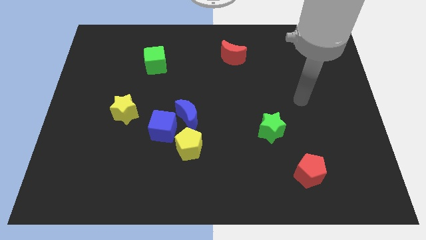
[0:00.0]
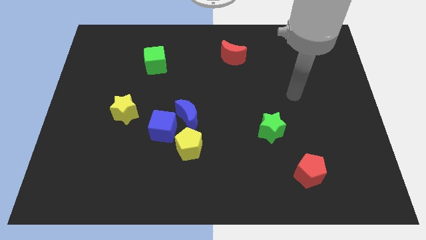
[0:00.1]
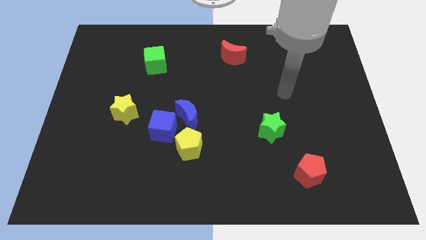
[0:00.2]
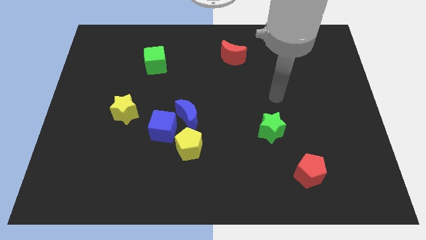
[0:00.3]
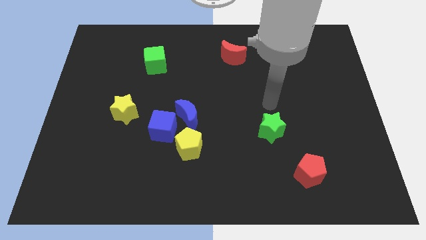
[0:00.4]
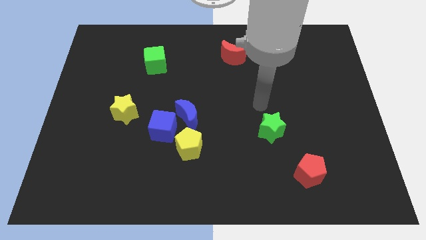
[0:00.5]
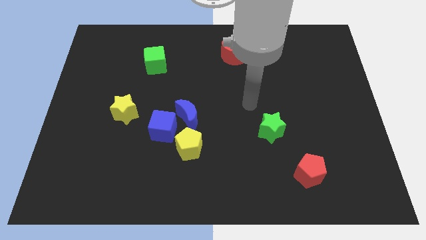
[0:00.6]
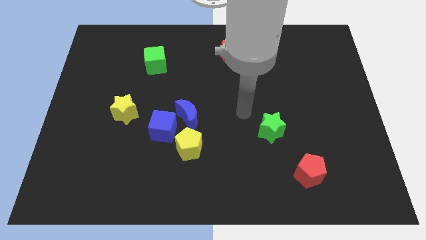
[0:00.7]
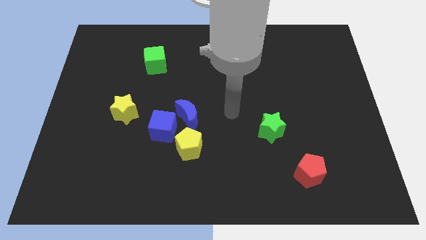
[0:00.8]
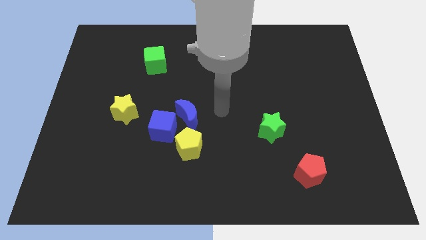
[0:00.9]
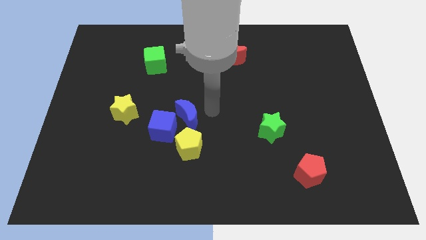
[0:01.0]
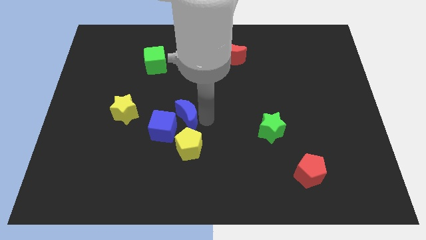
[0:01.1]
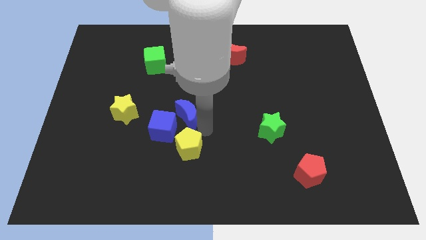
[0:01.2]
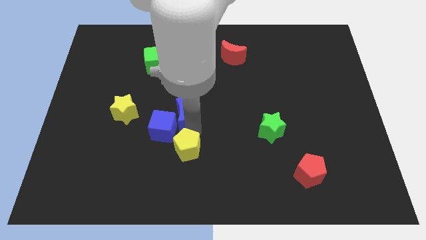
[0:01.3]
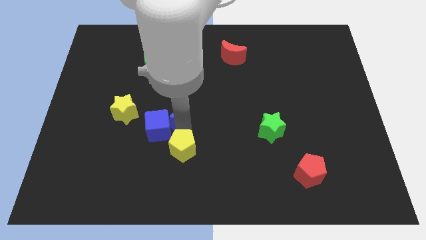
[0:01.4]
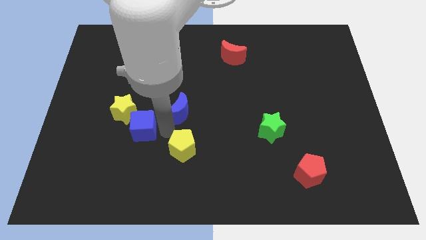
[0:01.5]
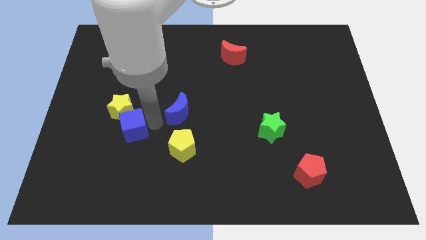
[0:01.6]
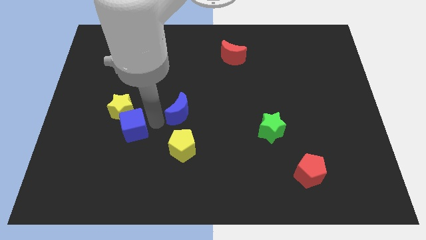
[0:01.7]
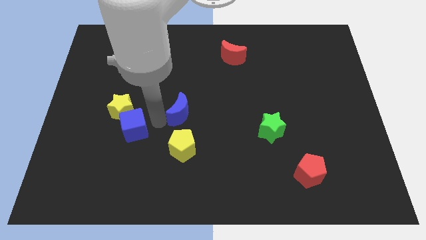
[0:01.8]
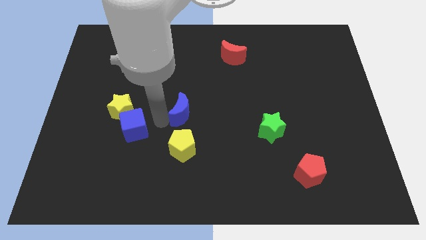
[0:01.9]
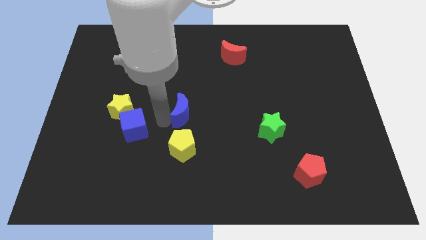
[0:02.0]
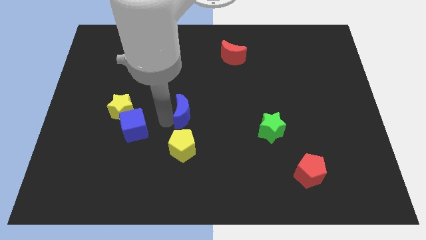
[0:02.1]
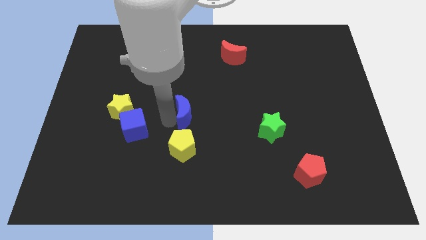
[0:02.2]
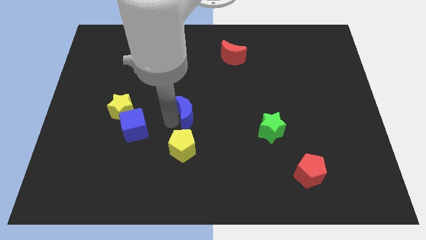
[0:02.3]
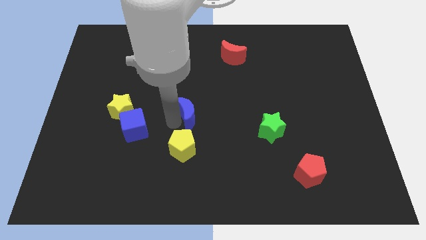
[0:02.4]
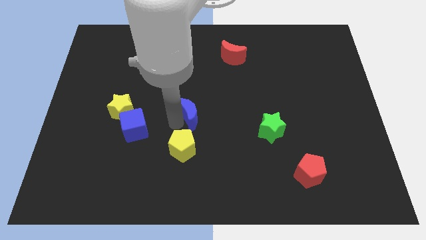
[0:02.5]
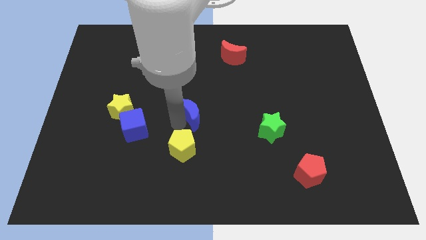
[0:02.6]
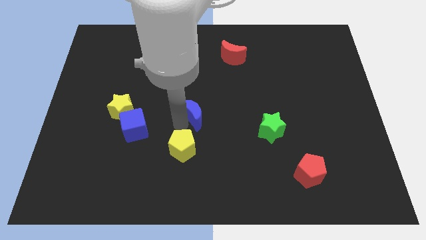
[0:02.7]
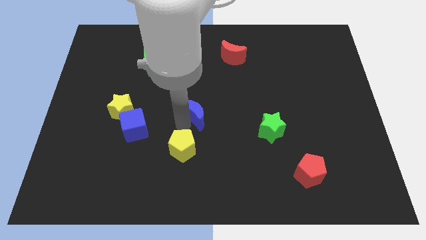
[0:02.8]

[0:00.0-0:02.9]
pull the blue moon apart from the blue cube and yellow pentagon

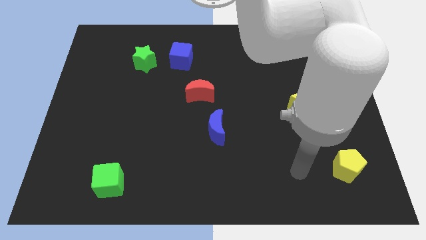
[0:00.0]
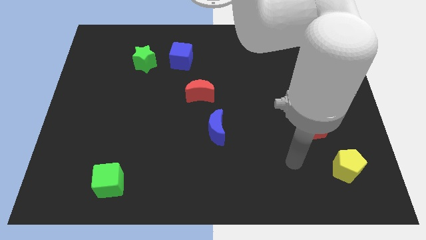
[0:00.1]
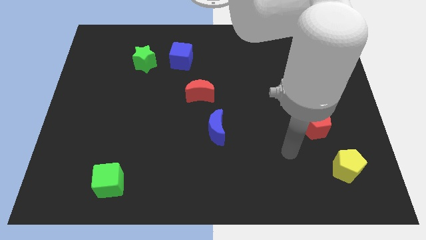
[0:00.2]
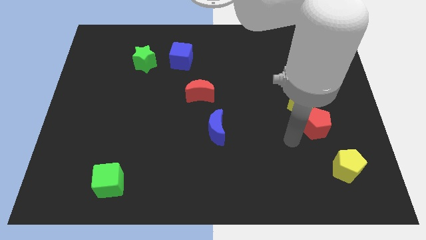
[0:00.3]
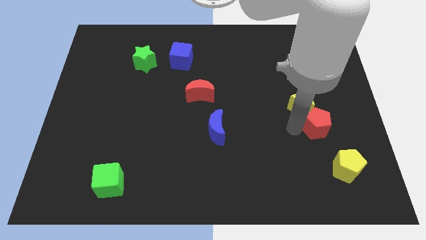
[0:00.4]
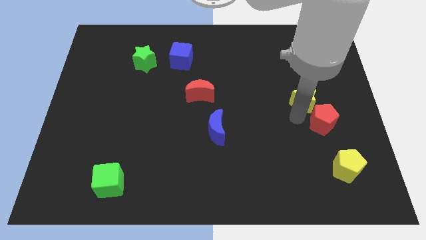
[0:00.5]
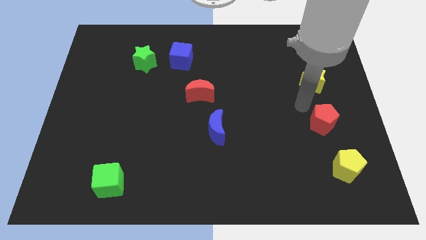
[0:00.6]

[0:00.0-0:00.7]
separate the red pentagon from the yellow star

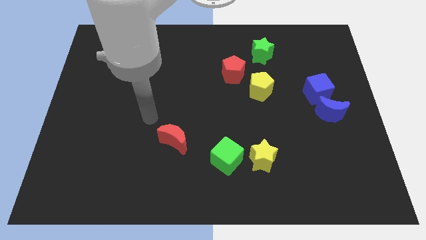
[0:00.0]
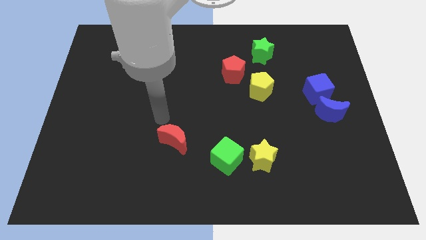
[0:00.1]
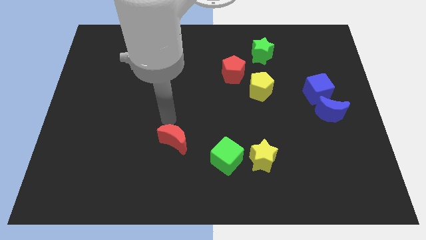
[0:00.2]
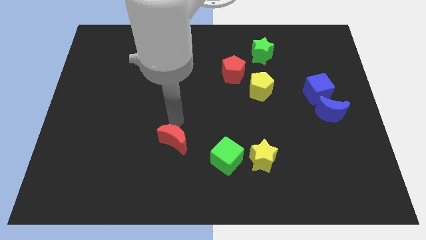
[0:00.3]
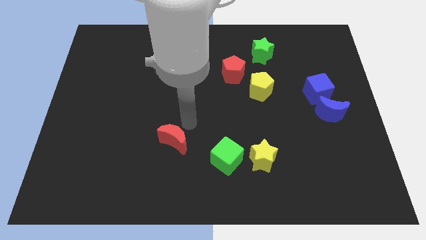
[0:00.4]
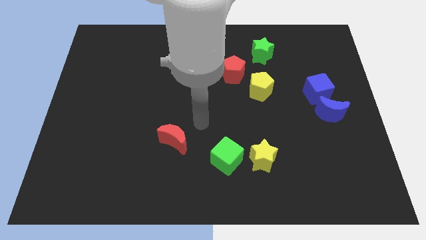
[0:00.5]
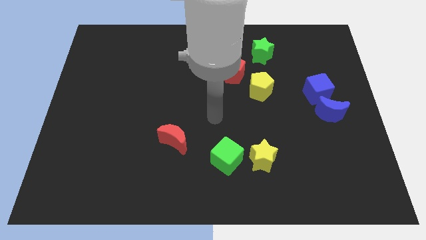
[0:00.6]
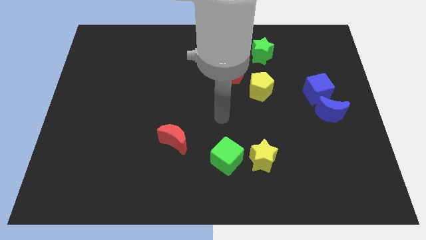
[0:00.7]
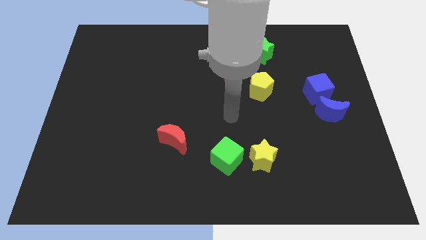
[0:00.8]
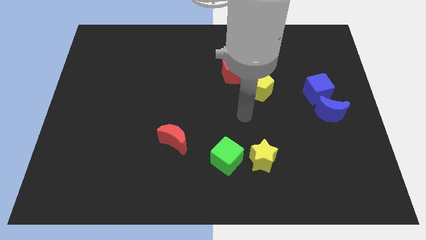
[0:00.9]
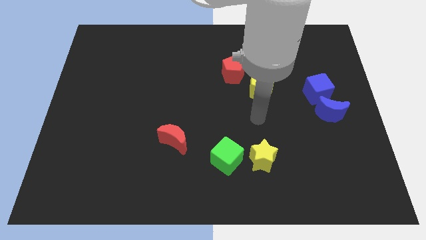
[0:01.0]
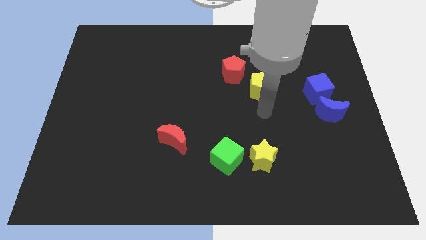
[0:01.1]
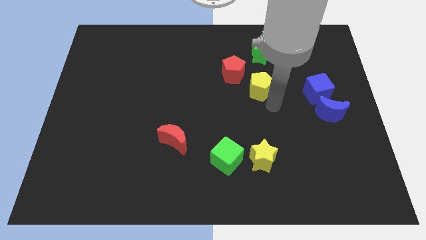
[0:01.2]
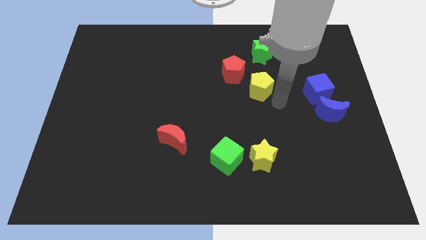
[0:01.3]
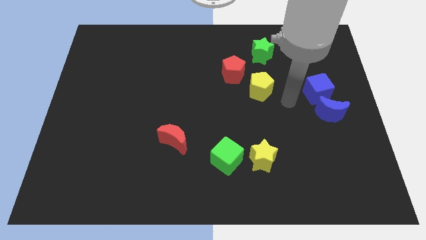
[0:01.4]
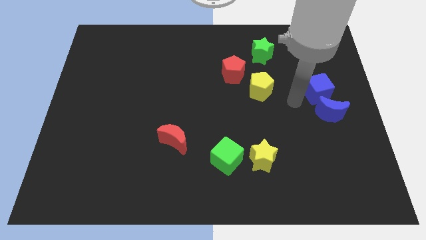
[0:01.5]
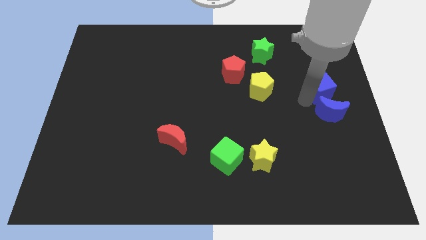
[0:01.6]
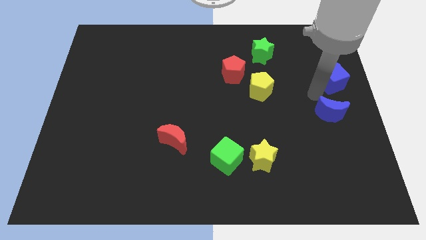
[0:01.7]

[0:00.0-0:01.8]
pull the blue moon apart from the blue cube

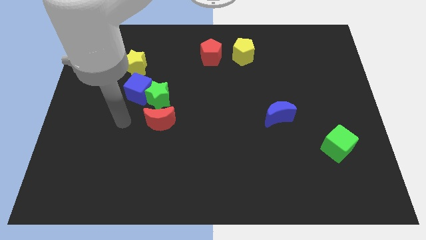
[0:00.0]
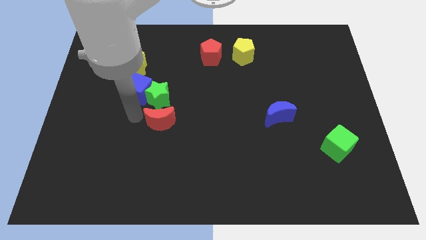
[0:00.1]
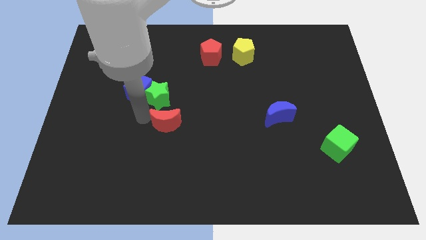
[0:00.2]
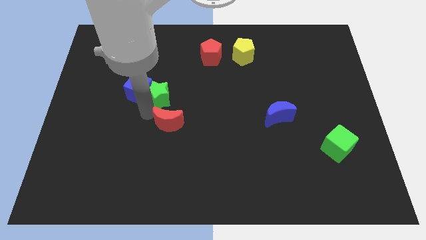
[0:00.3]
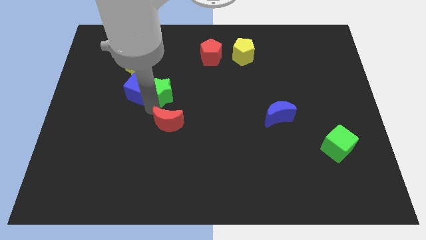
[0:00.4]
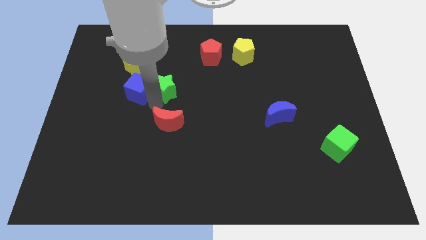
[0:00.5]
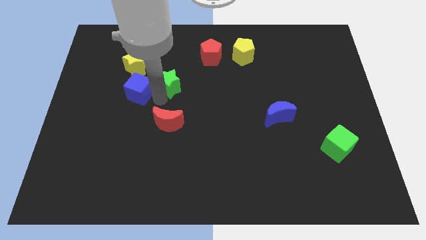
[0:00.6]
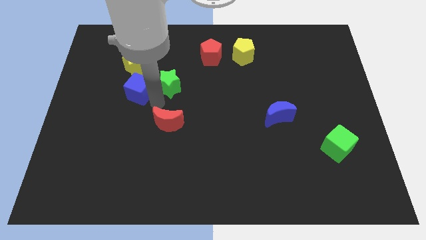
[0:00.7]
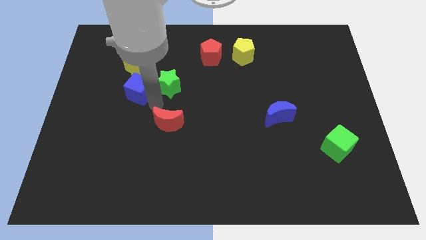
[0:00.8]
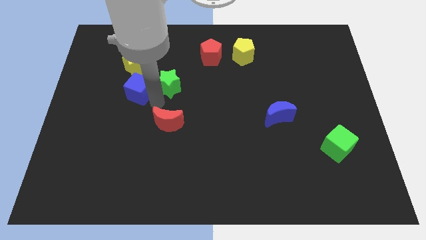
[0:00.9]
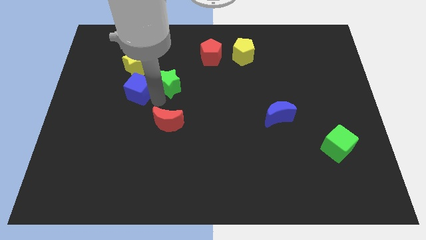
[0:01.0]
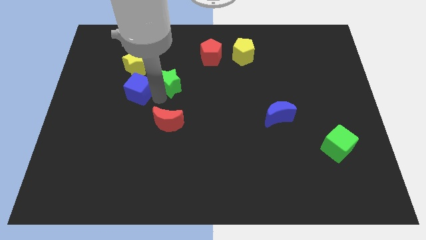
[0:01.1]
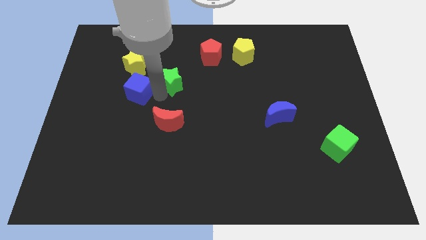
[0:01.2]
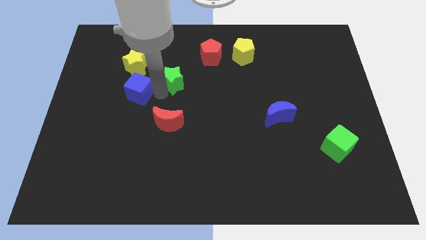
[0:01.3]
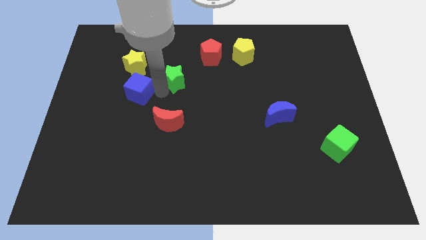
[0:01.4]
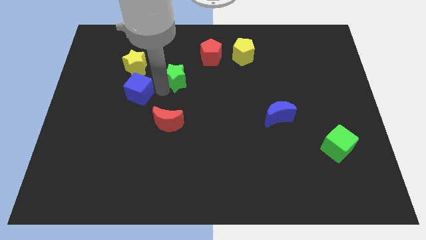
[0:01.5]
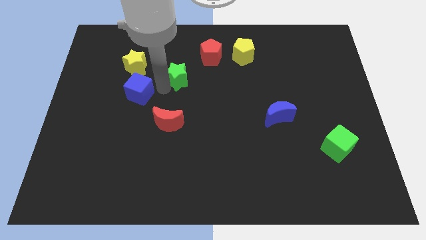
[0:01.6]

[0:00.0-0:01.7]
move the green star away from the blue cube and red moon

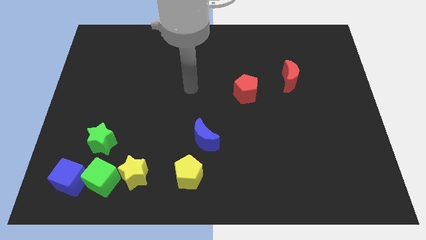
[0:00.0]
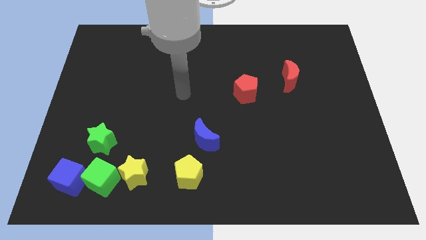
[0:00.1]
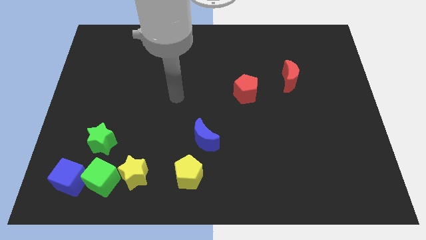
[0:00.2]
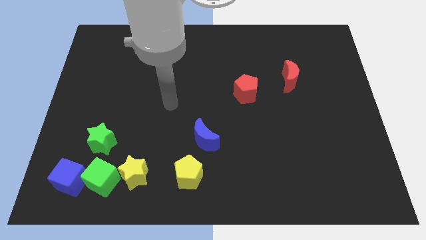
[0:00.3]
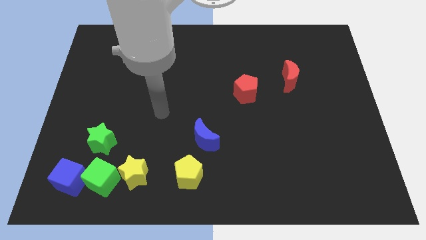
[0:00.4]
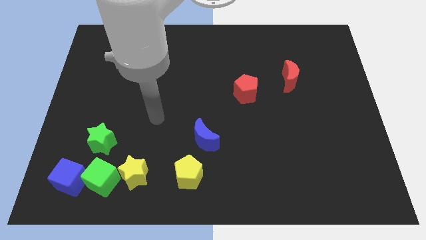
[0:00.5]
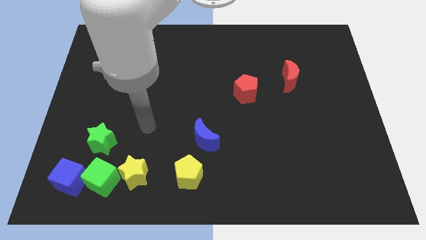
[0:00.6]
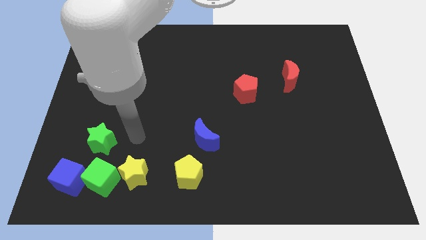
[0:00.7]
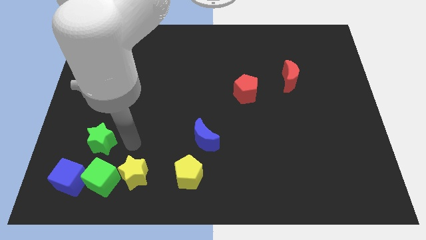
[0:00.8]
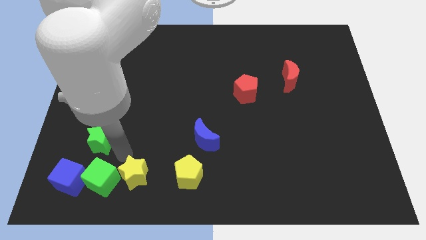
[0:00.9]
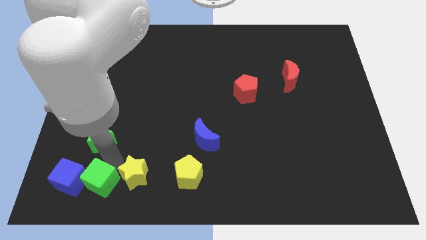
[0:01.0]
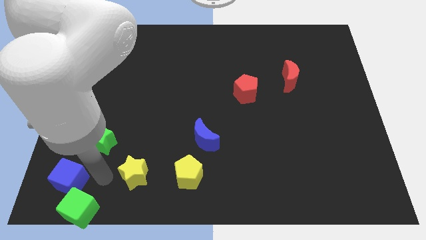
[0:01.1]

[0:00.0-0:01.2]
separate the yellow star from the green cube

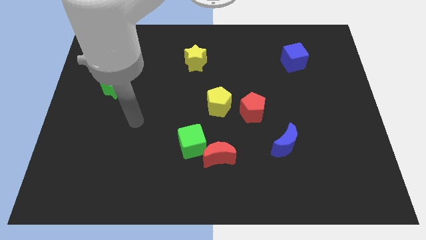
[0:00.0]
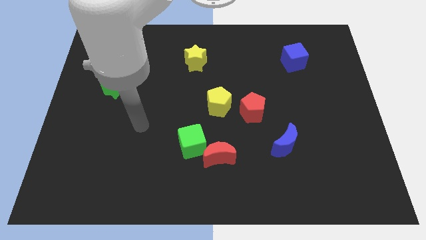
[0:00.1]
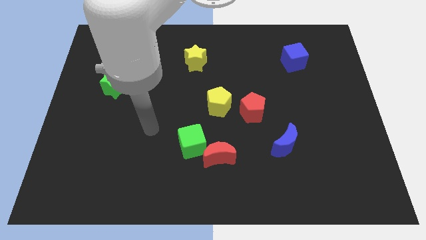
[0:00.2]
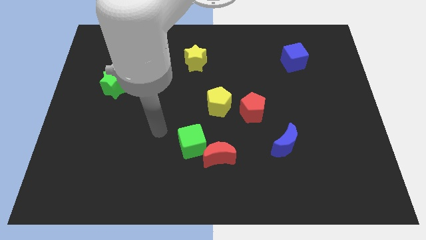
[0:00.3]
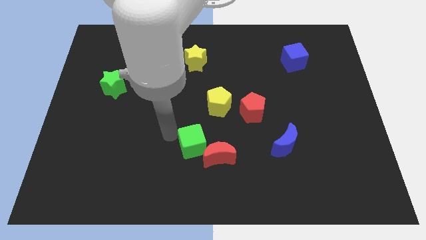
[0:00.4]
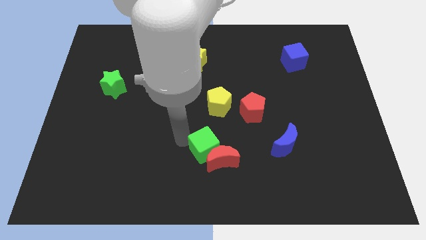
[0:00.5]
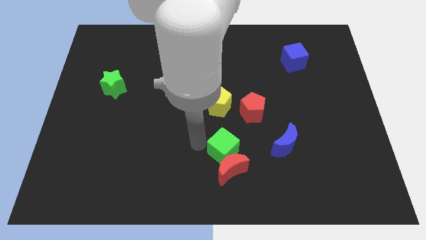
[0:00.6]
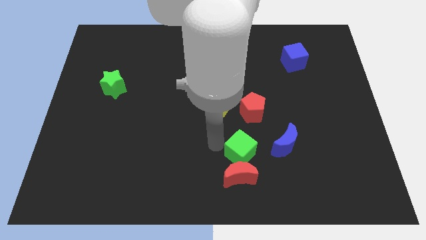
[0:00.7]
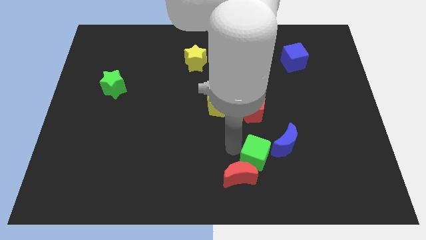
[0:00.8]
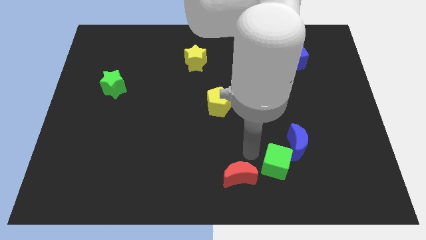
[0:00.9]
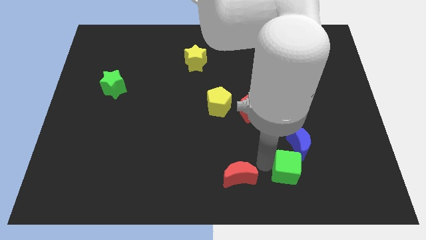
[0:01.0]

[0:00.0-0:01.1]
separate the red moon from the green cube
